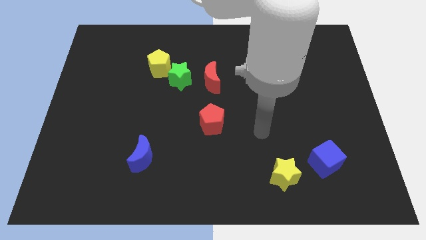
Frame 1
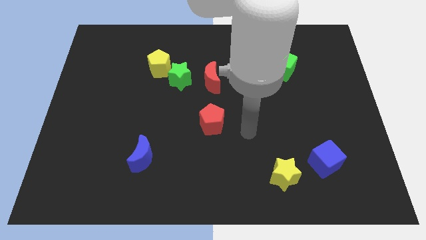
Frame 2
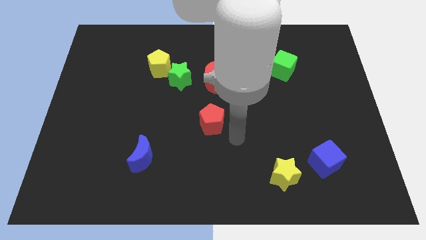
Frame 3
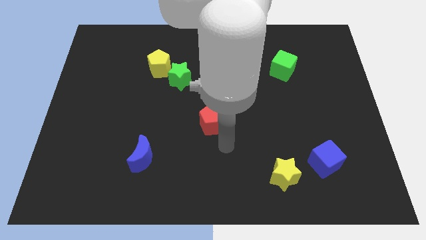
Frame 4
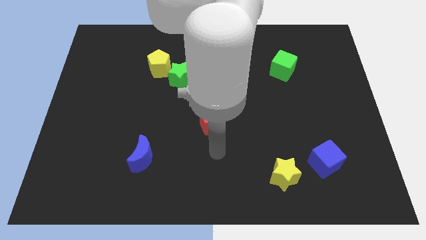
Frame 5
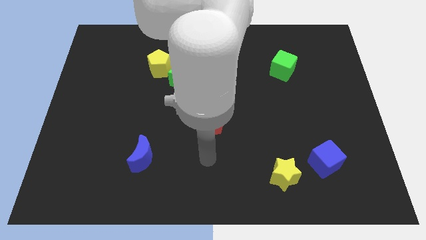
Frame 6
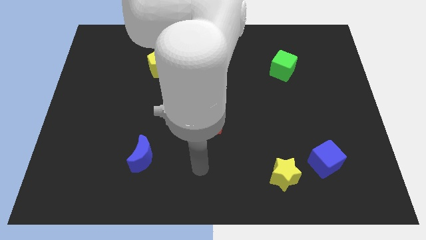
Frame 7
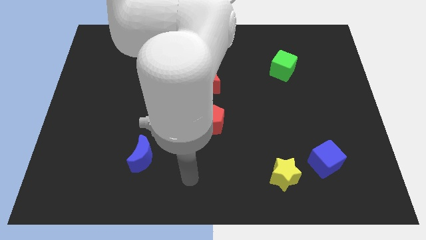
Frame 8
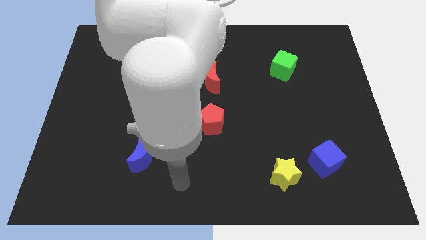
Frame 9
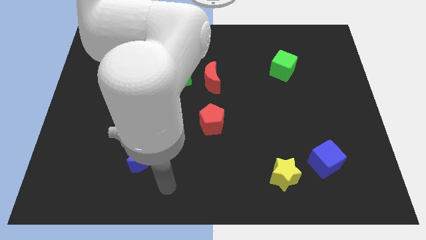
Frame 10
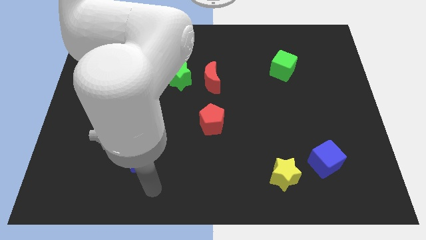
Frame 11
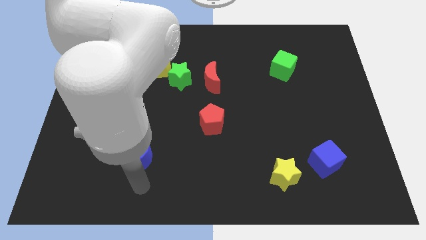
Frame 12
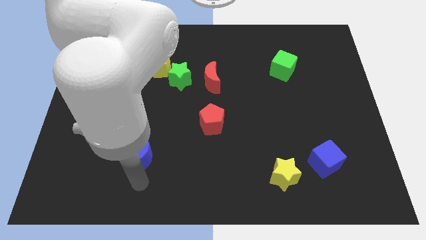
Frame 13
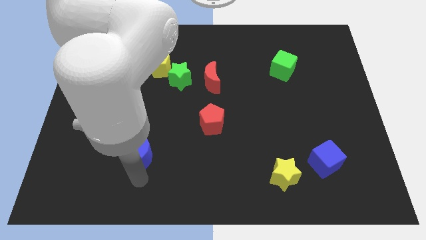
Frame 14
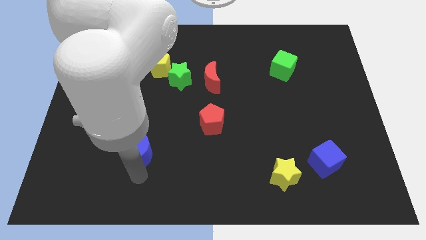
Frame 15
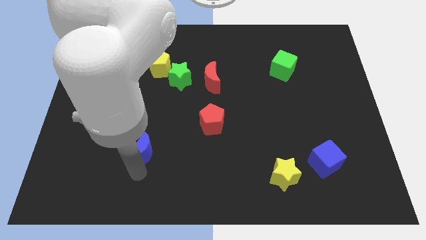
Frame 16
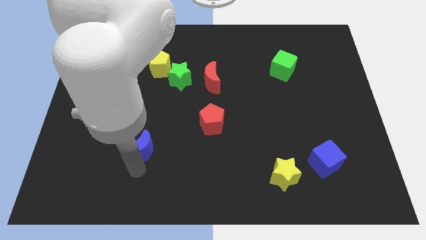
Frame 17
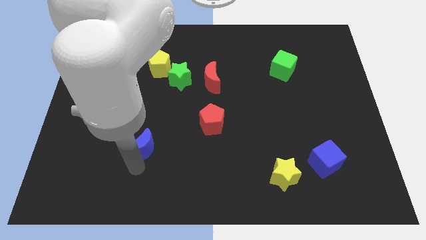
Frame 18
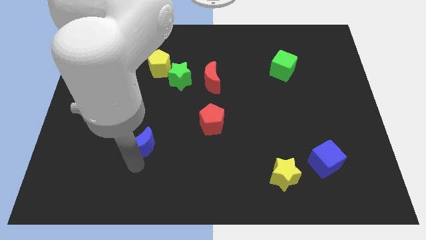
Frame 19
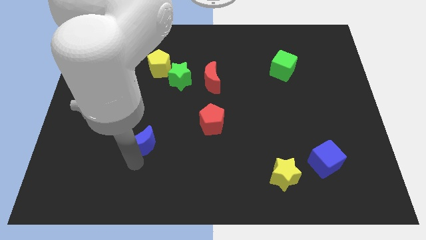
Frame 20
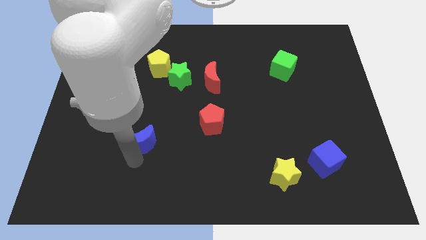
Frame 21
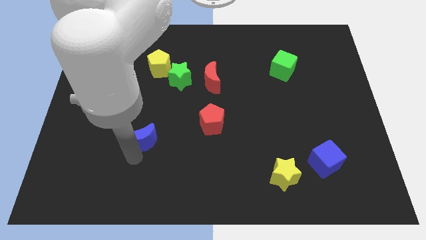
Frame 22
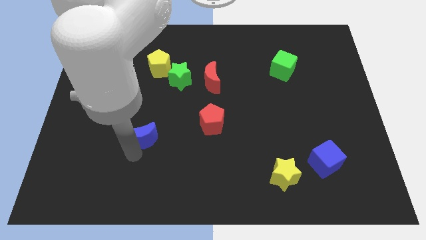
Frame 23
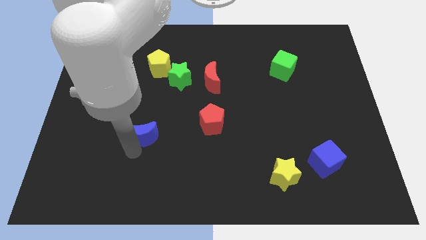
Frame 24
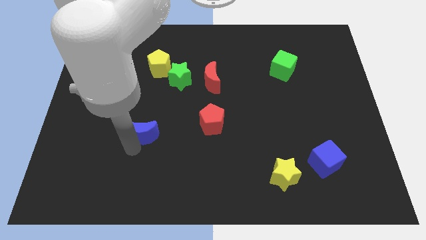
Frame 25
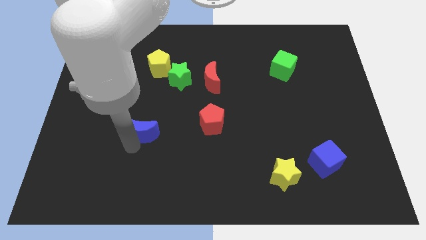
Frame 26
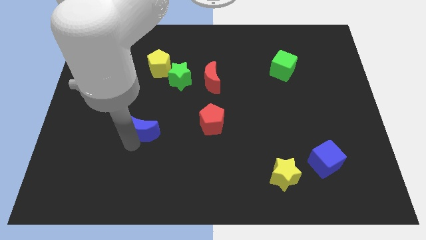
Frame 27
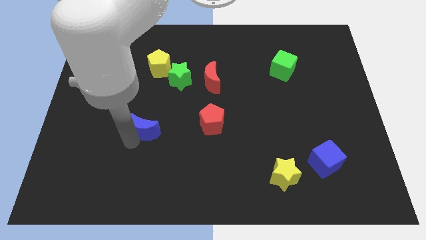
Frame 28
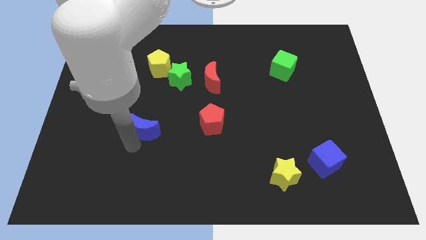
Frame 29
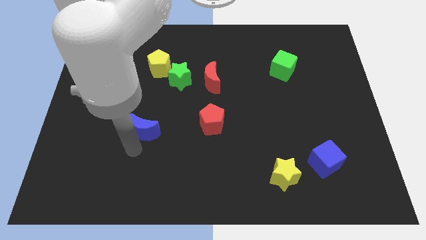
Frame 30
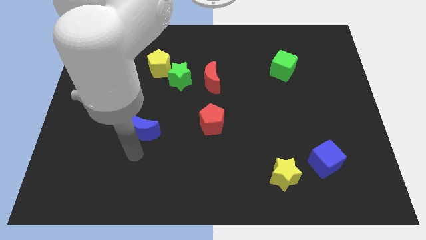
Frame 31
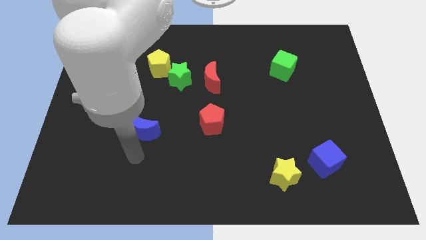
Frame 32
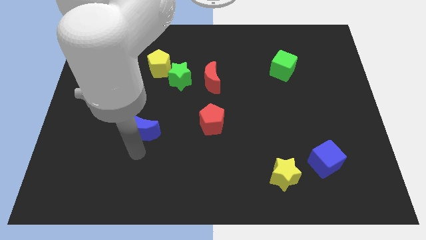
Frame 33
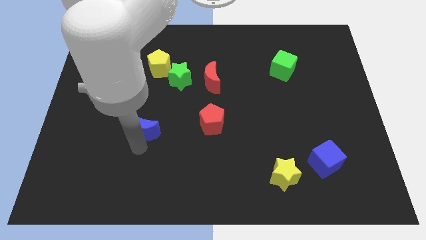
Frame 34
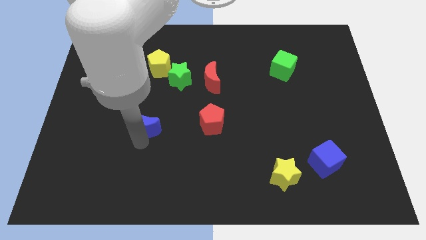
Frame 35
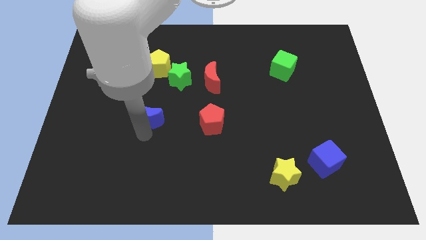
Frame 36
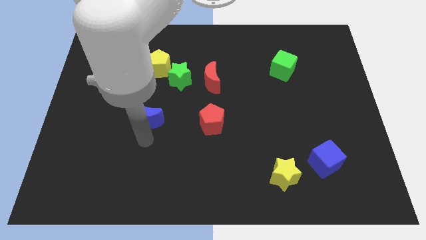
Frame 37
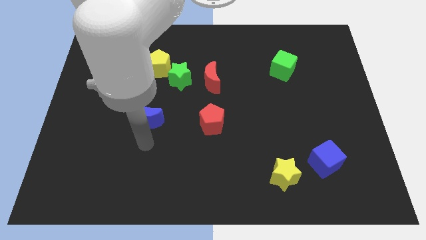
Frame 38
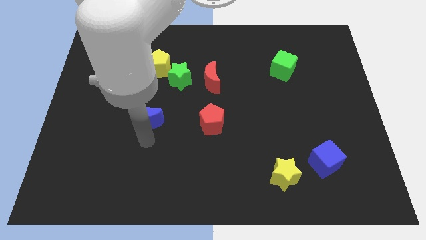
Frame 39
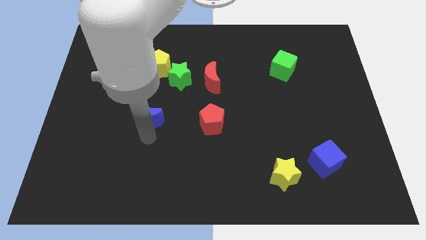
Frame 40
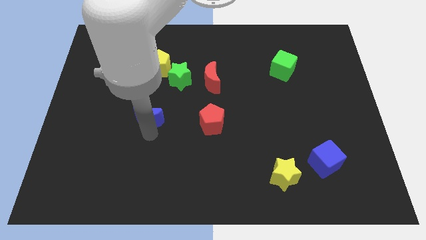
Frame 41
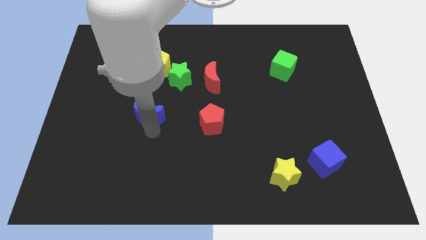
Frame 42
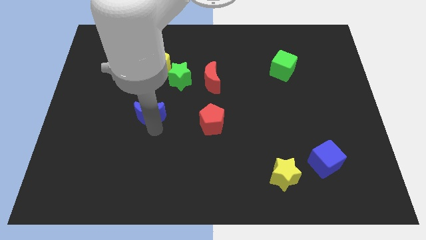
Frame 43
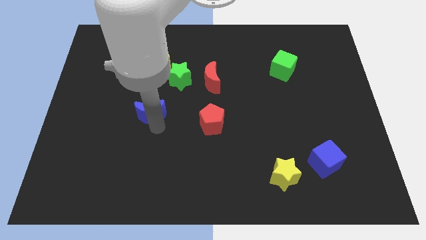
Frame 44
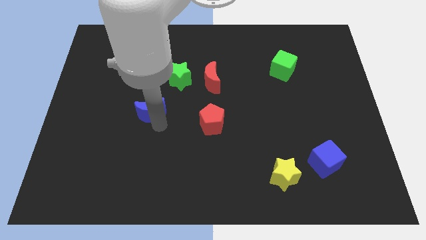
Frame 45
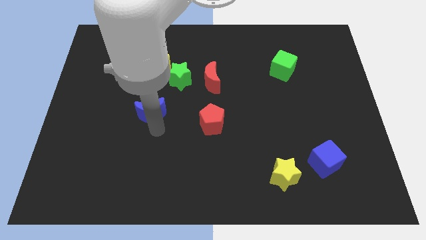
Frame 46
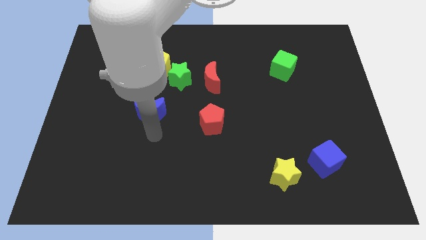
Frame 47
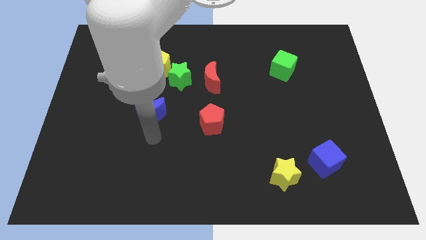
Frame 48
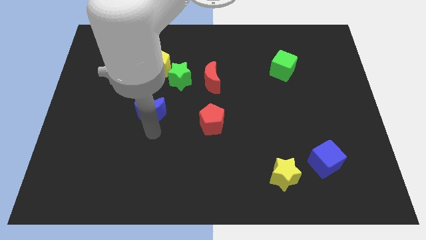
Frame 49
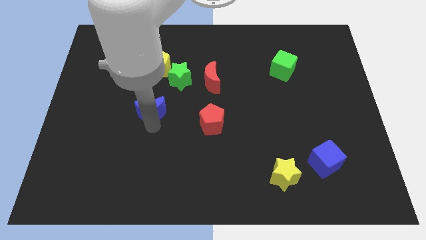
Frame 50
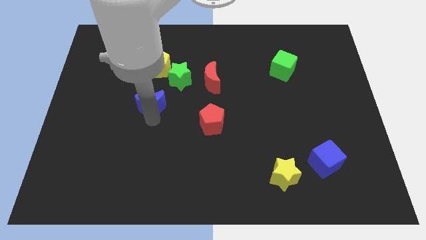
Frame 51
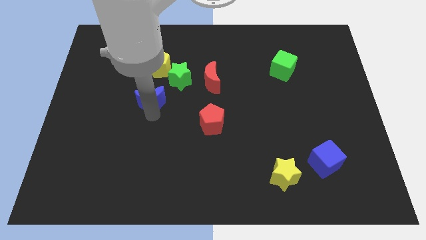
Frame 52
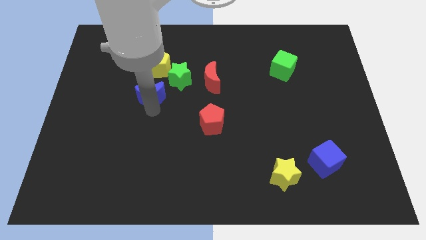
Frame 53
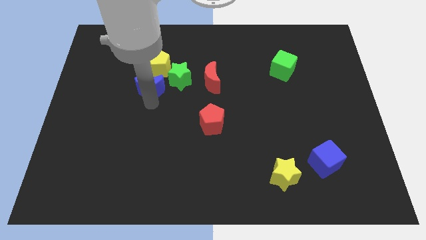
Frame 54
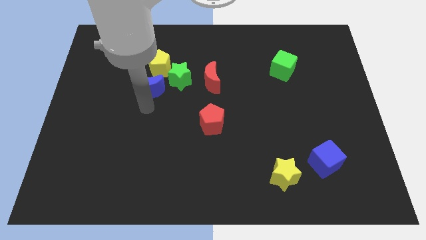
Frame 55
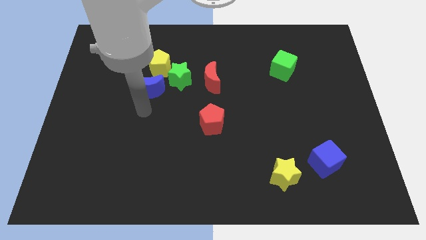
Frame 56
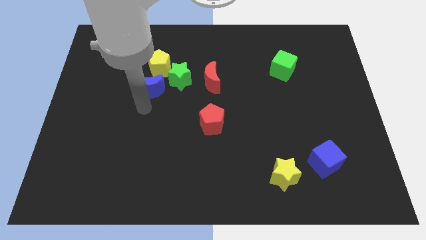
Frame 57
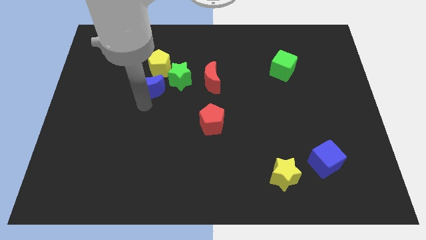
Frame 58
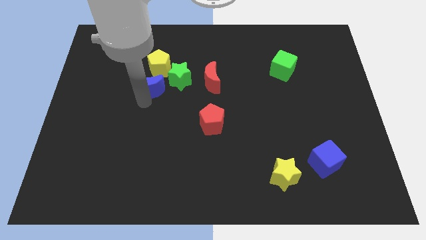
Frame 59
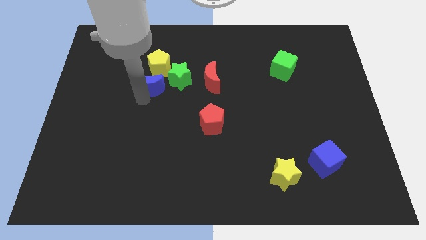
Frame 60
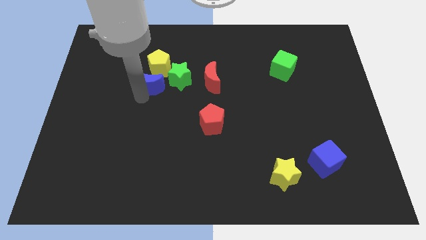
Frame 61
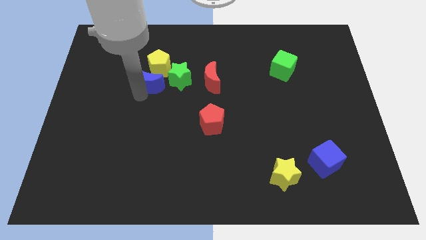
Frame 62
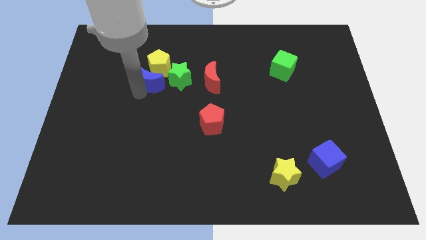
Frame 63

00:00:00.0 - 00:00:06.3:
put the blue moon next to the yellow pentagon

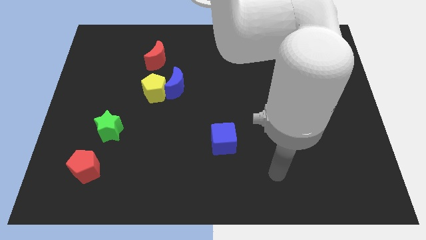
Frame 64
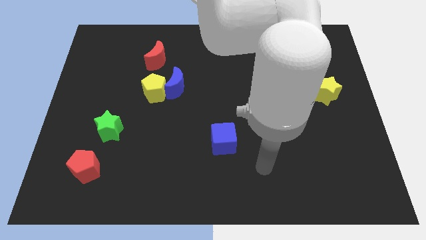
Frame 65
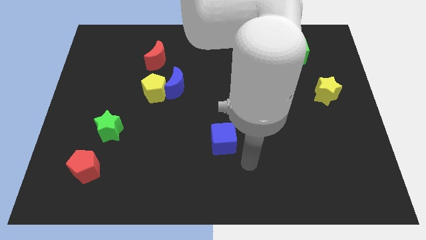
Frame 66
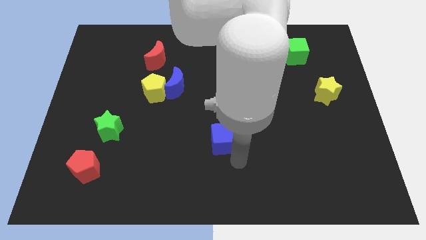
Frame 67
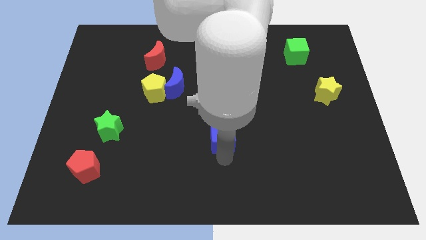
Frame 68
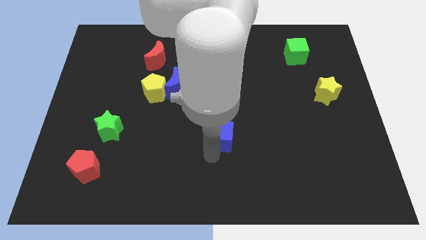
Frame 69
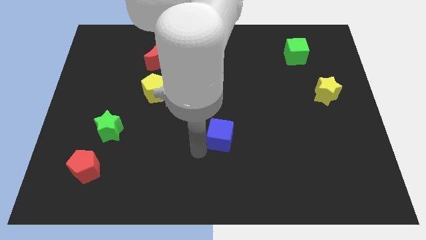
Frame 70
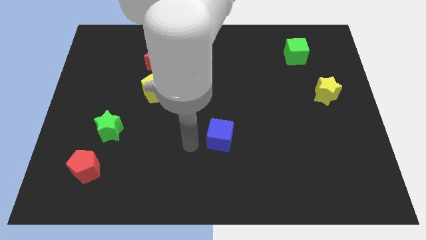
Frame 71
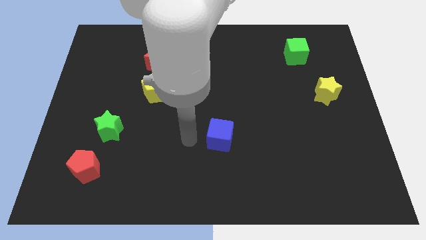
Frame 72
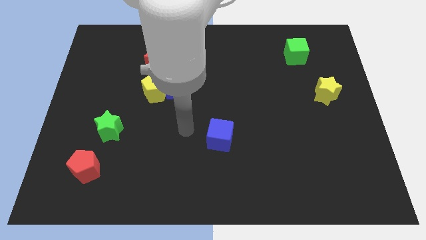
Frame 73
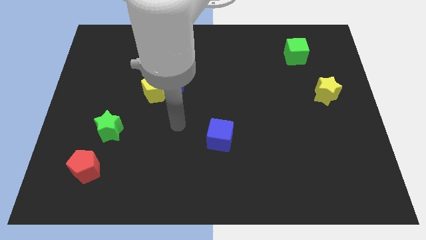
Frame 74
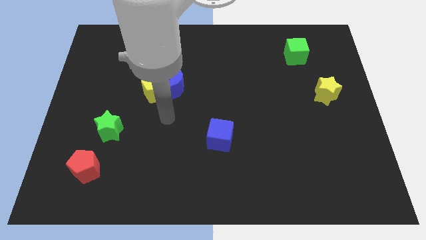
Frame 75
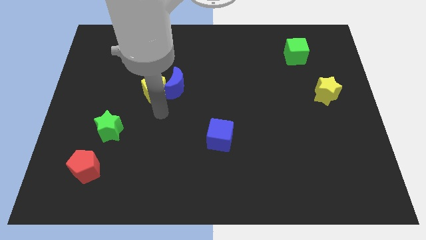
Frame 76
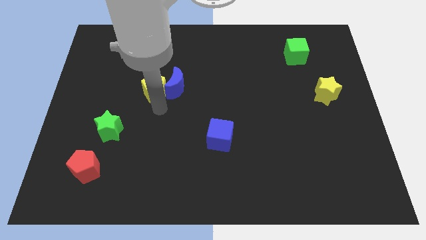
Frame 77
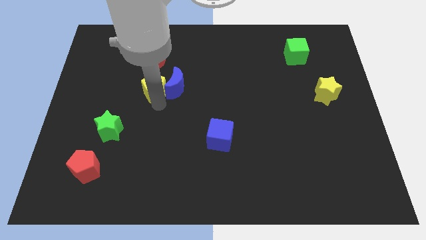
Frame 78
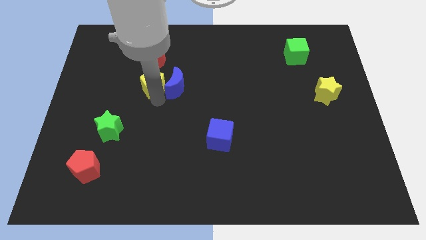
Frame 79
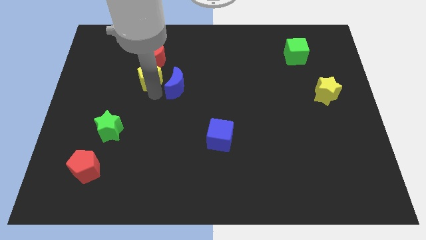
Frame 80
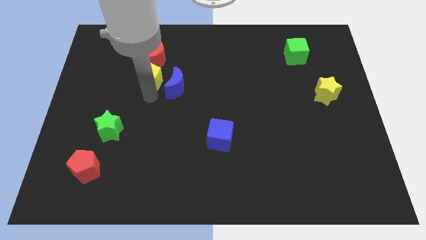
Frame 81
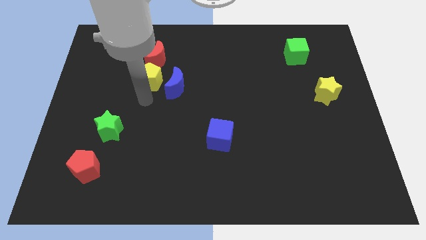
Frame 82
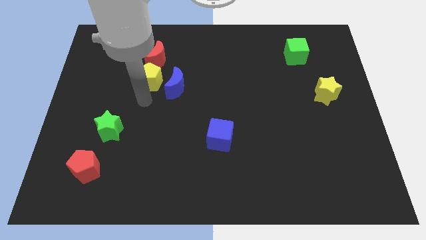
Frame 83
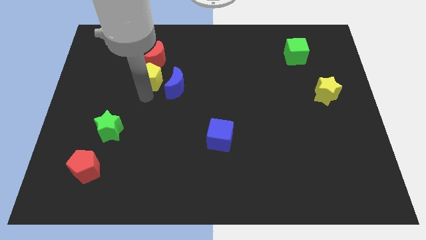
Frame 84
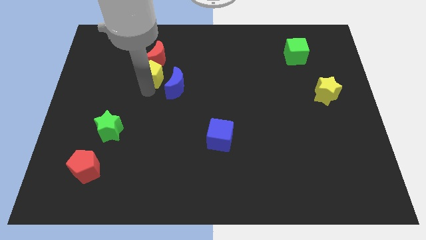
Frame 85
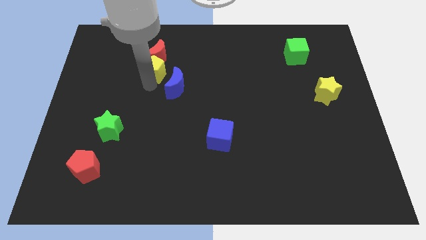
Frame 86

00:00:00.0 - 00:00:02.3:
slide the yellow pentagon to the red moon
